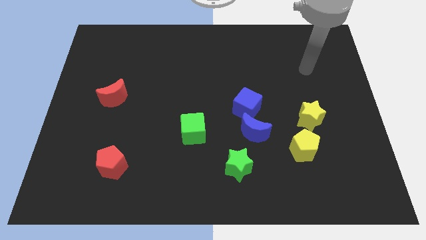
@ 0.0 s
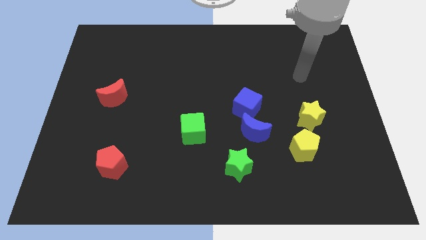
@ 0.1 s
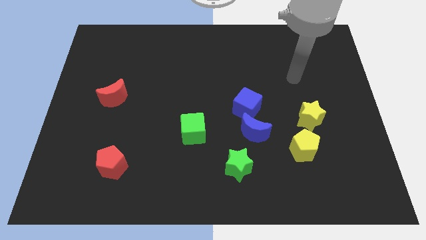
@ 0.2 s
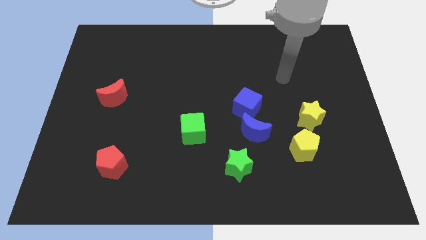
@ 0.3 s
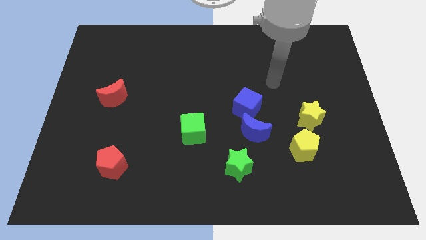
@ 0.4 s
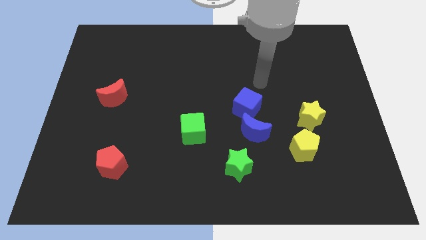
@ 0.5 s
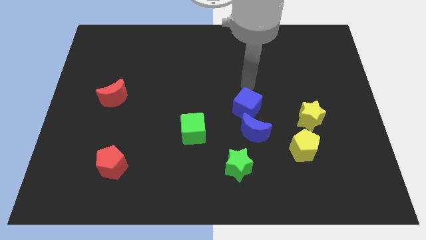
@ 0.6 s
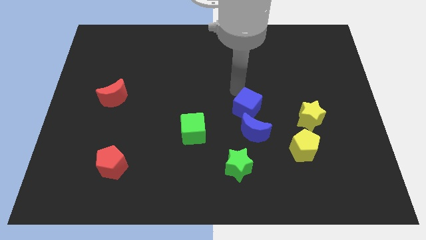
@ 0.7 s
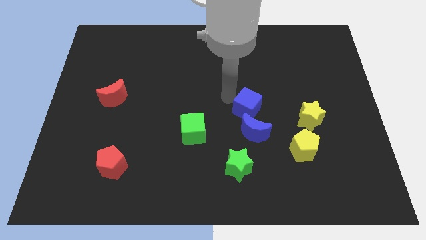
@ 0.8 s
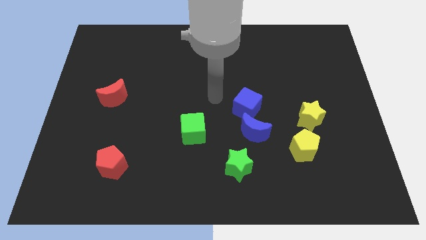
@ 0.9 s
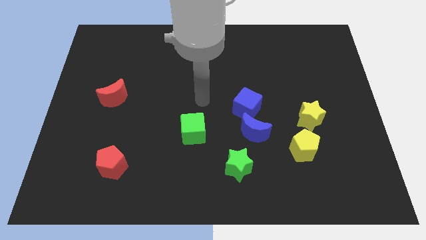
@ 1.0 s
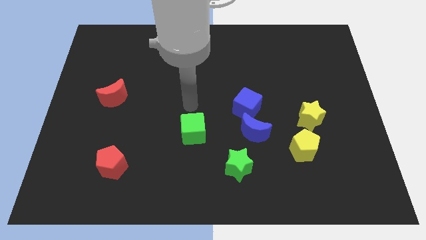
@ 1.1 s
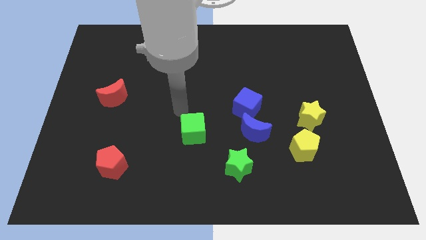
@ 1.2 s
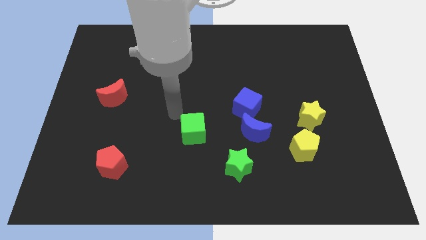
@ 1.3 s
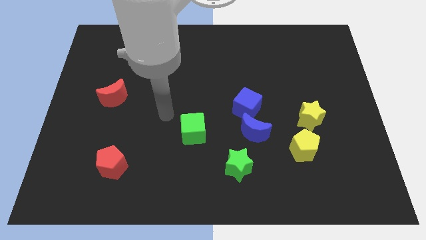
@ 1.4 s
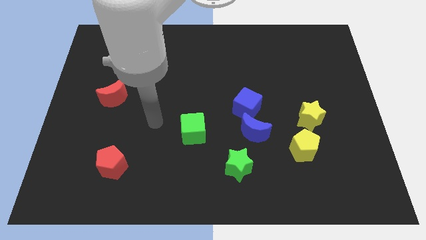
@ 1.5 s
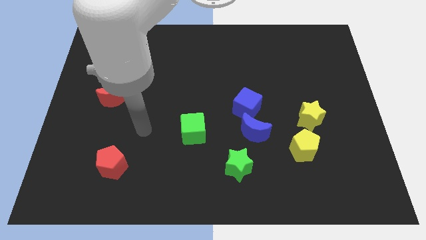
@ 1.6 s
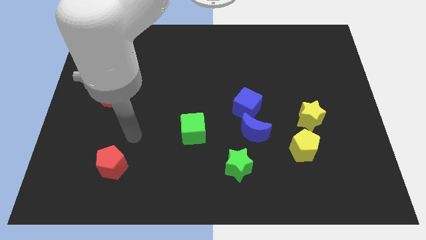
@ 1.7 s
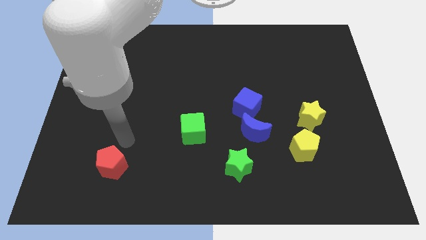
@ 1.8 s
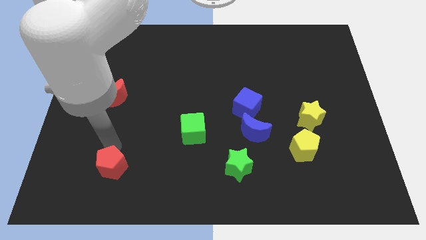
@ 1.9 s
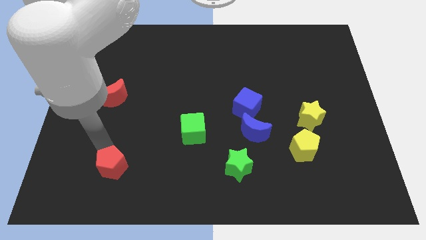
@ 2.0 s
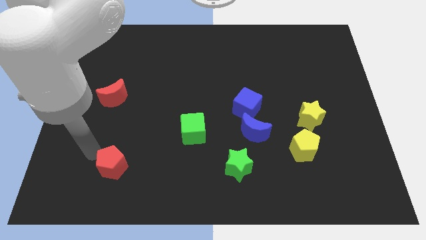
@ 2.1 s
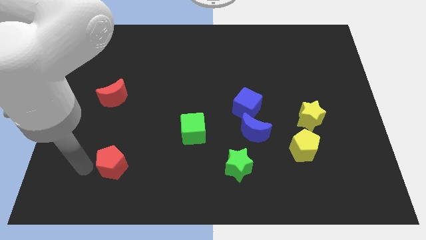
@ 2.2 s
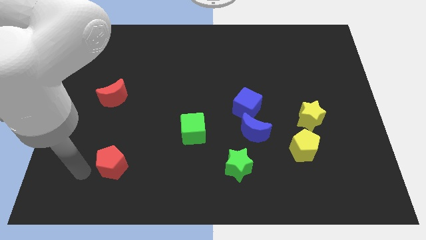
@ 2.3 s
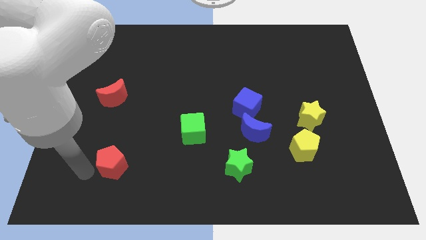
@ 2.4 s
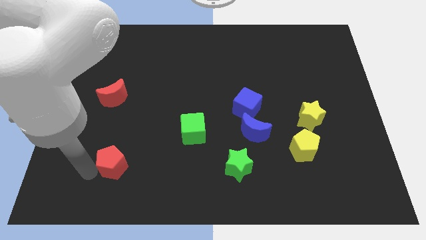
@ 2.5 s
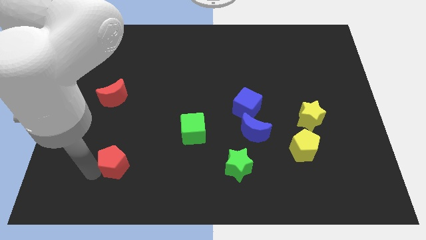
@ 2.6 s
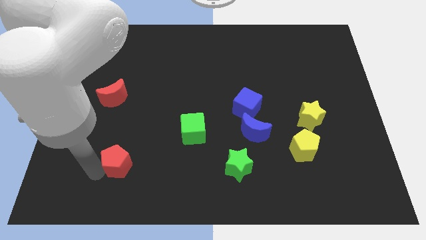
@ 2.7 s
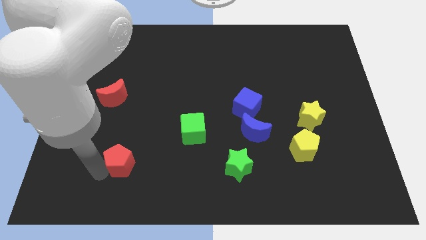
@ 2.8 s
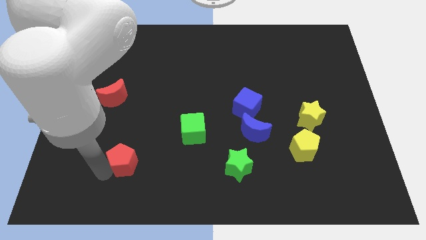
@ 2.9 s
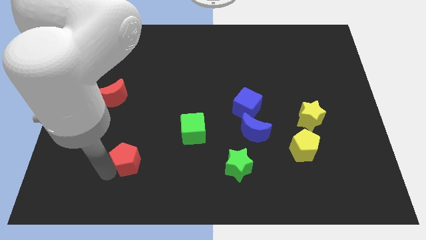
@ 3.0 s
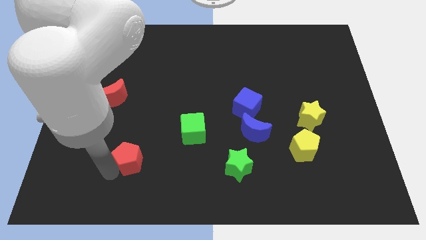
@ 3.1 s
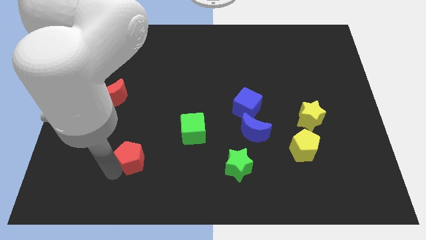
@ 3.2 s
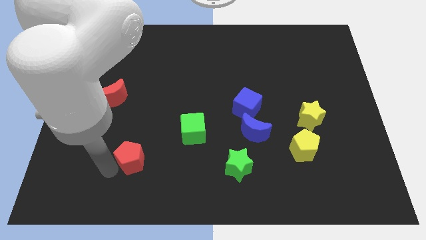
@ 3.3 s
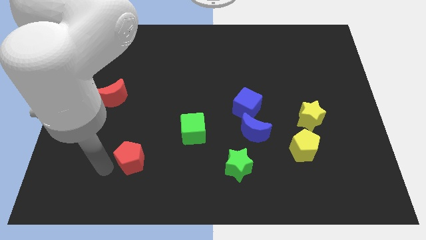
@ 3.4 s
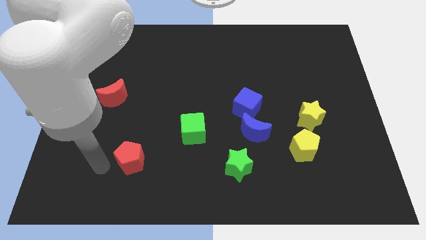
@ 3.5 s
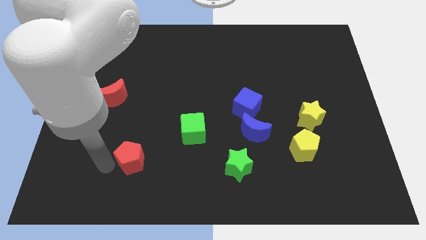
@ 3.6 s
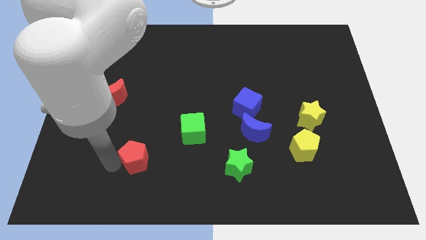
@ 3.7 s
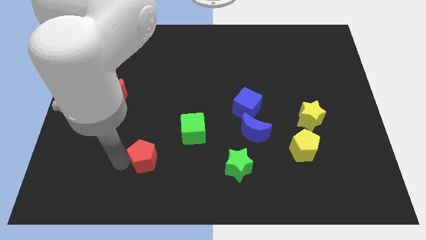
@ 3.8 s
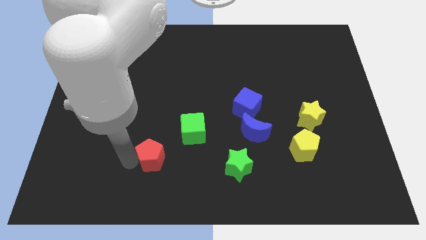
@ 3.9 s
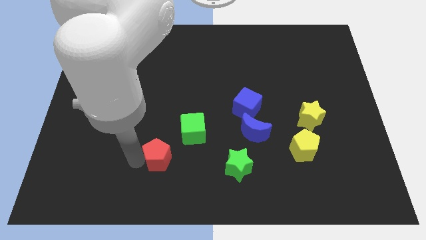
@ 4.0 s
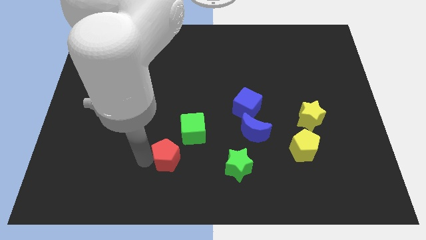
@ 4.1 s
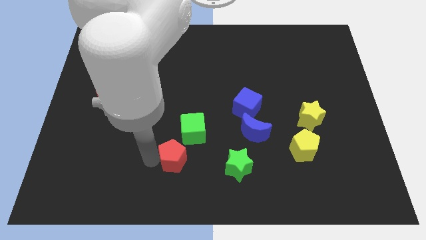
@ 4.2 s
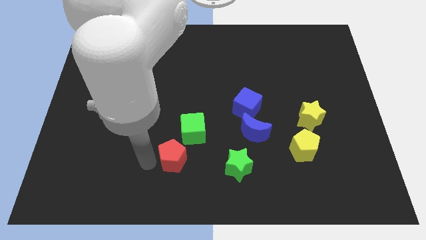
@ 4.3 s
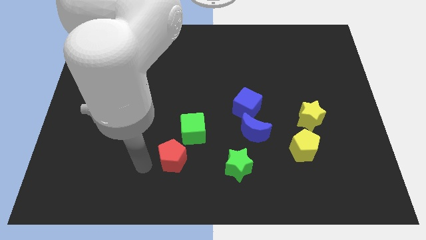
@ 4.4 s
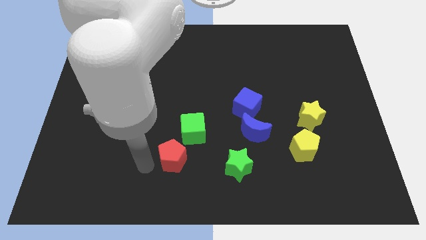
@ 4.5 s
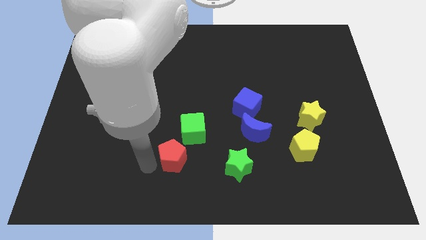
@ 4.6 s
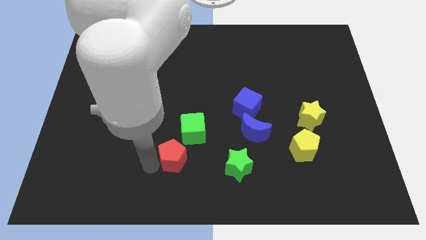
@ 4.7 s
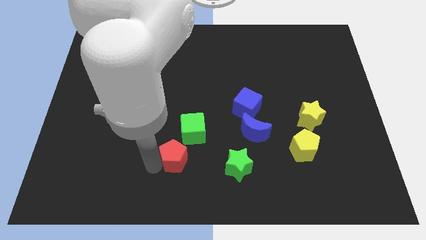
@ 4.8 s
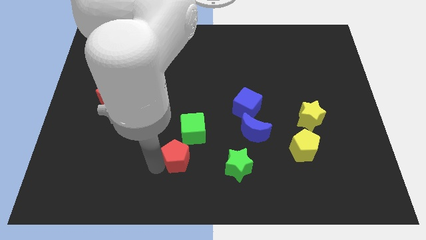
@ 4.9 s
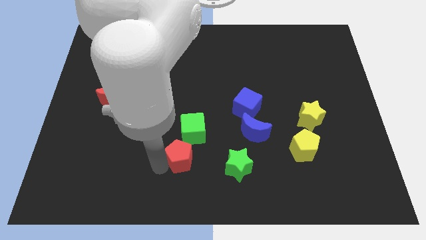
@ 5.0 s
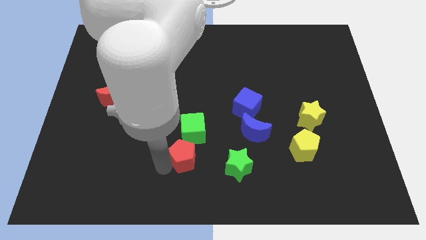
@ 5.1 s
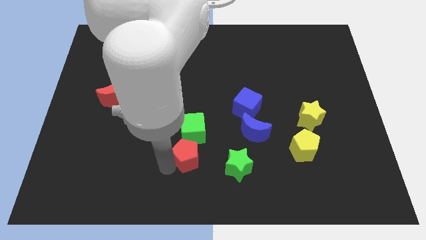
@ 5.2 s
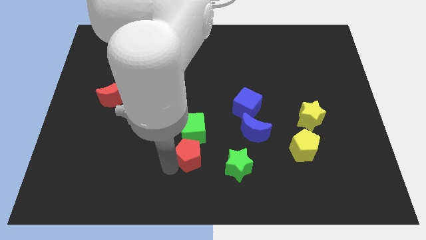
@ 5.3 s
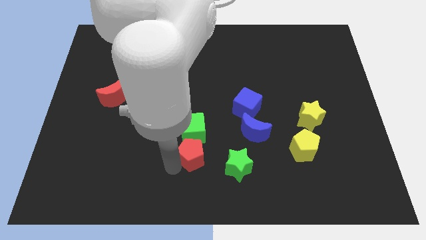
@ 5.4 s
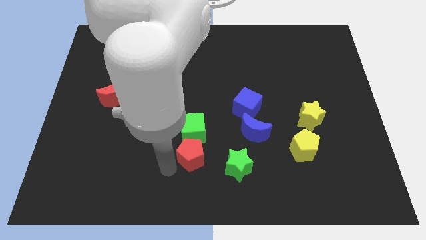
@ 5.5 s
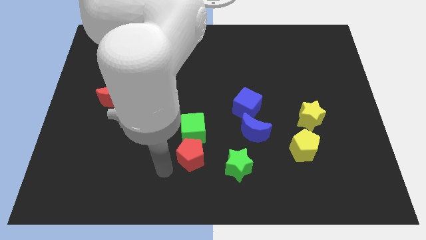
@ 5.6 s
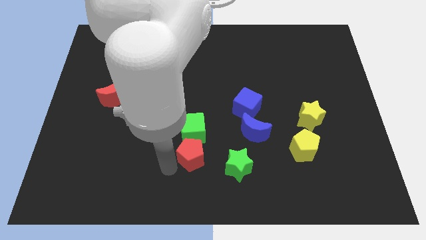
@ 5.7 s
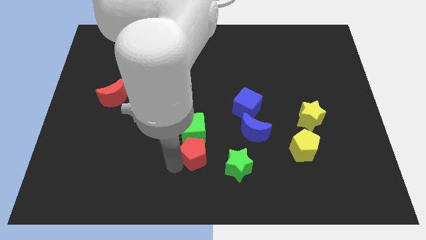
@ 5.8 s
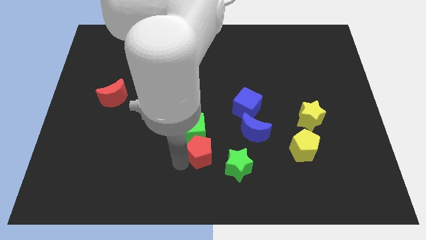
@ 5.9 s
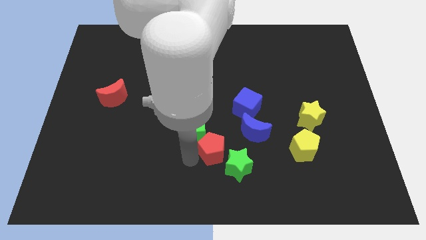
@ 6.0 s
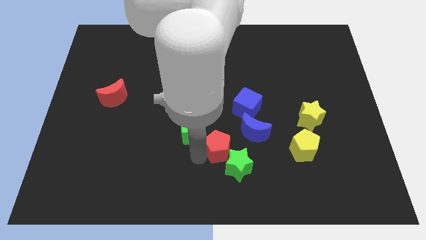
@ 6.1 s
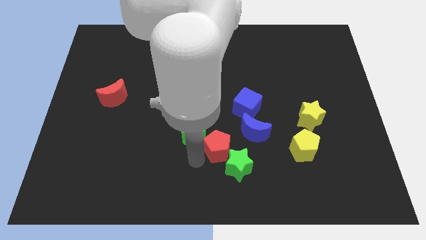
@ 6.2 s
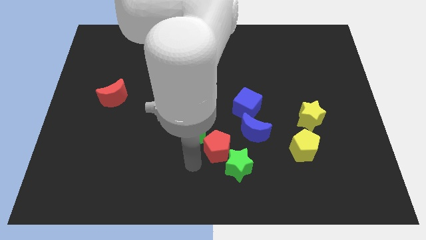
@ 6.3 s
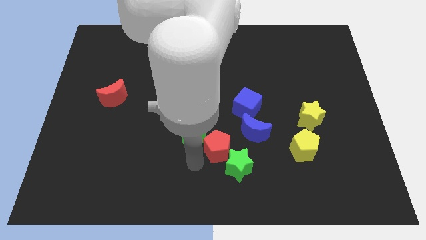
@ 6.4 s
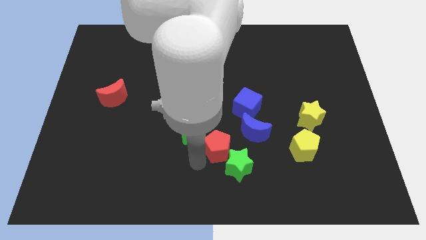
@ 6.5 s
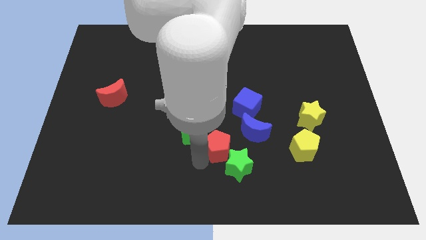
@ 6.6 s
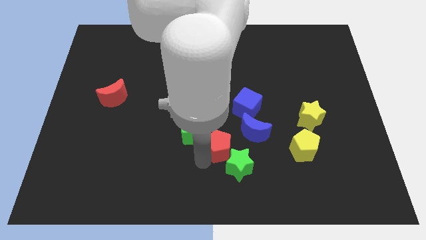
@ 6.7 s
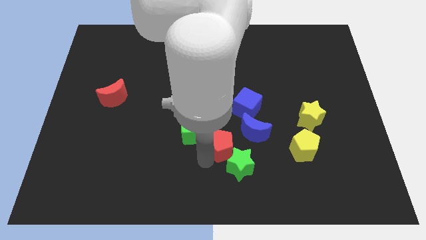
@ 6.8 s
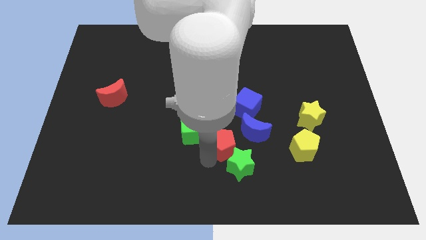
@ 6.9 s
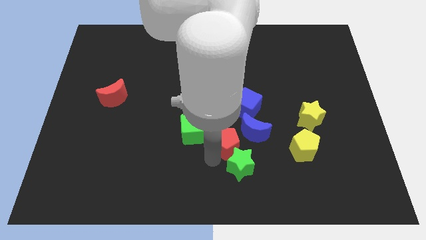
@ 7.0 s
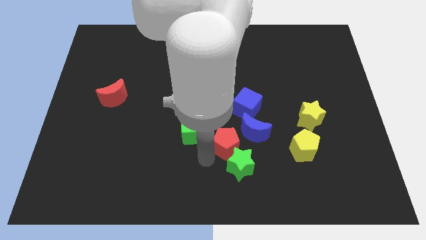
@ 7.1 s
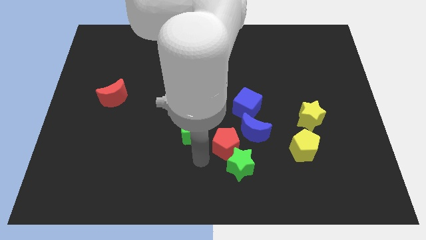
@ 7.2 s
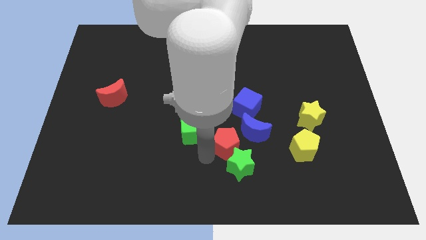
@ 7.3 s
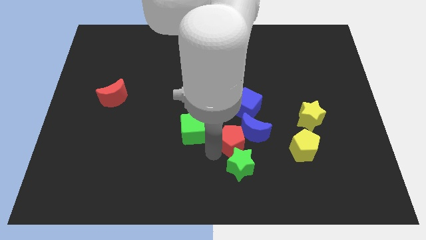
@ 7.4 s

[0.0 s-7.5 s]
put the red pentagon close to the blue moon
